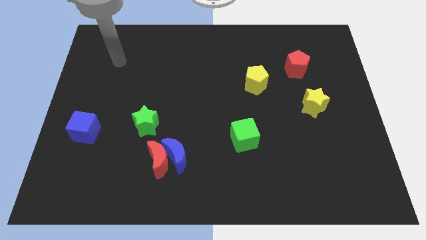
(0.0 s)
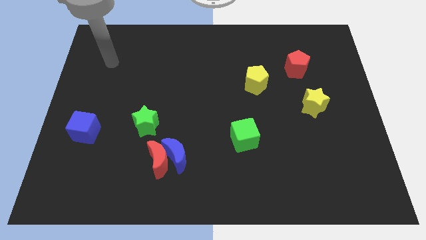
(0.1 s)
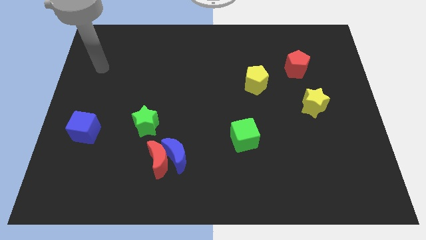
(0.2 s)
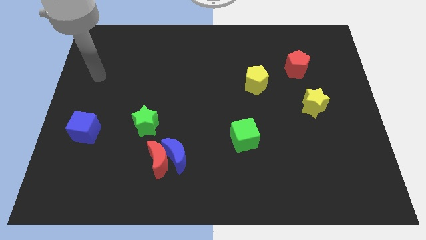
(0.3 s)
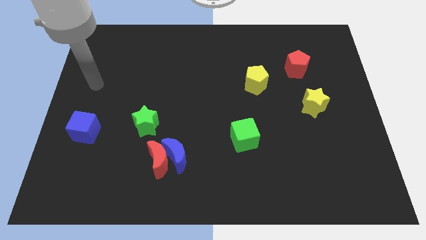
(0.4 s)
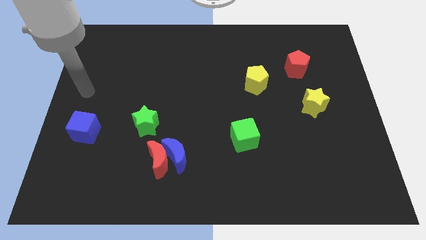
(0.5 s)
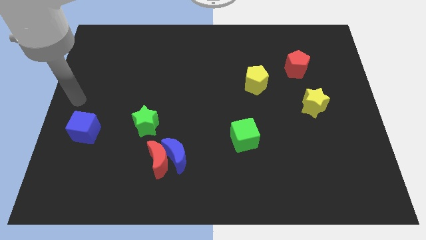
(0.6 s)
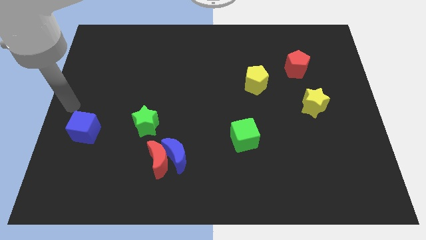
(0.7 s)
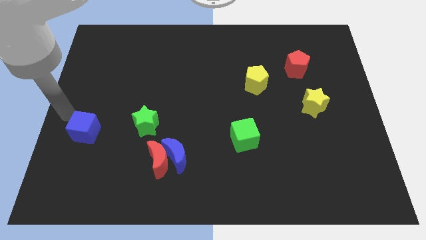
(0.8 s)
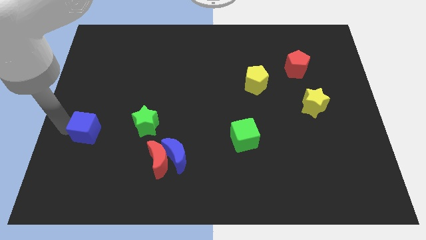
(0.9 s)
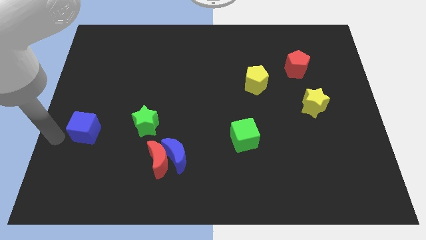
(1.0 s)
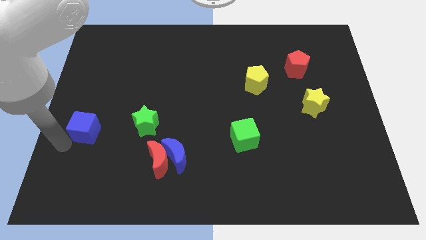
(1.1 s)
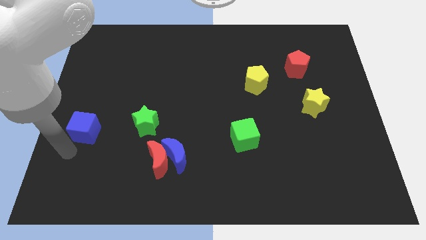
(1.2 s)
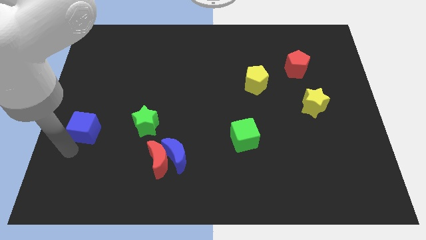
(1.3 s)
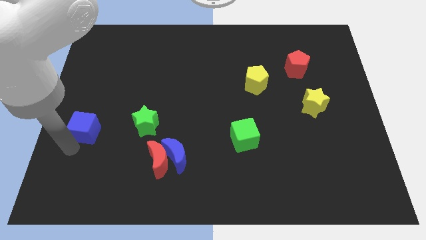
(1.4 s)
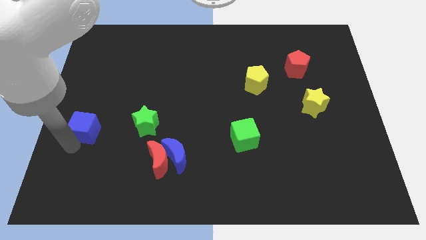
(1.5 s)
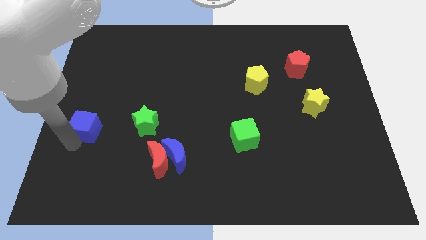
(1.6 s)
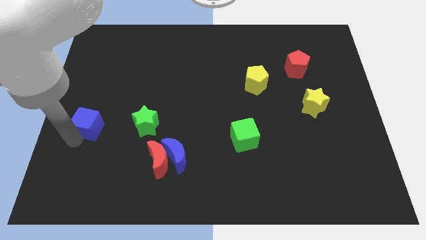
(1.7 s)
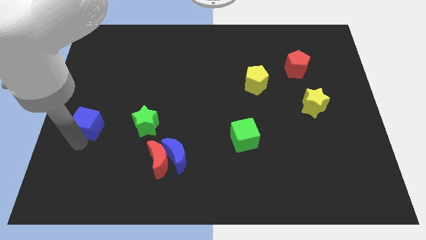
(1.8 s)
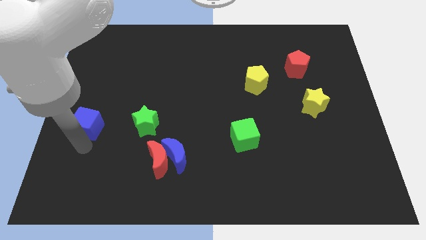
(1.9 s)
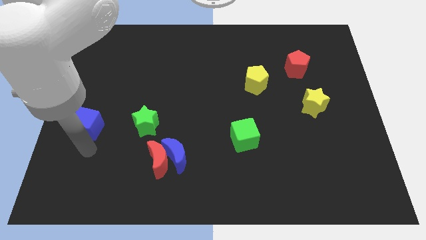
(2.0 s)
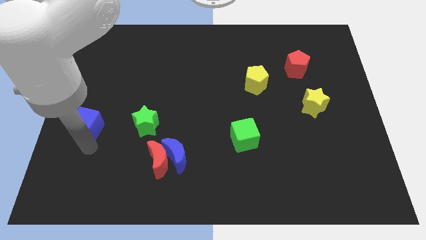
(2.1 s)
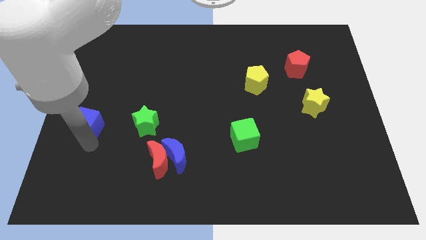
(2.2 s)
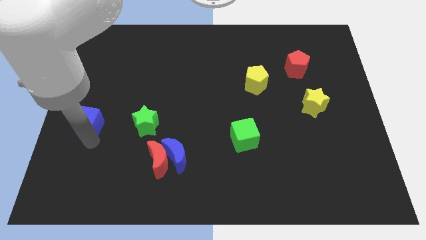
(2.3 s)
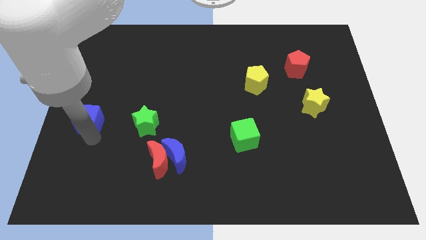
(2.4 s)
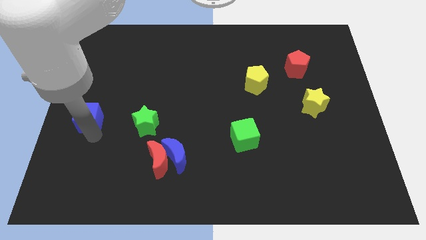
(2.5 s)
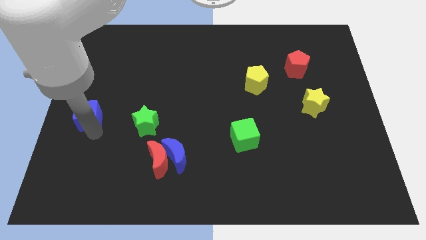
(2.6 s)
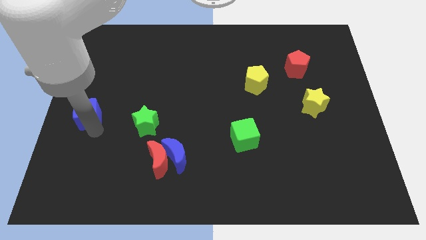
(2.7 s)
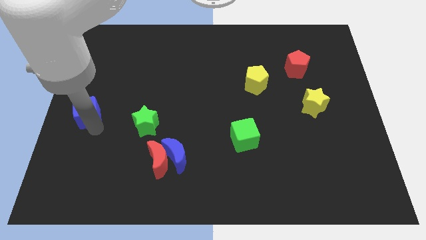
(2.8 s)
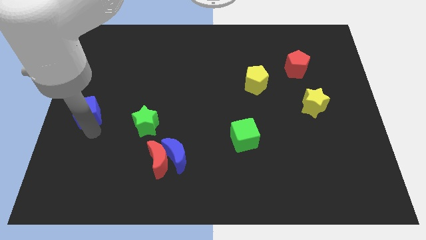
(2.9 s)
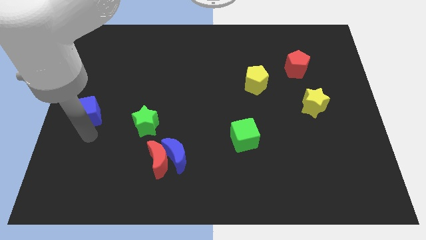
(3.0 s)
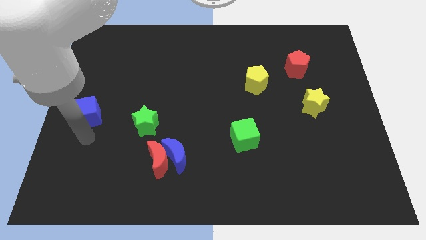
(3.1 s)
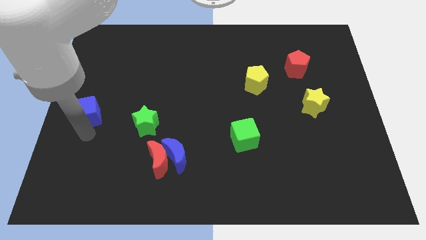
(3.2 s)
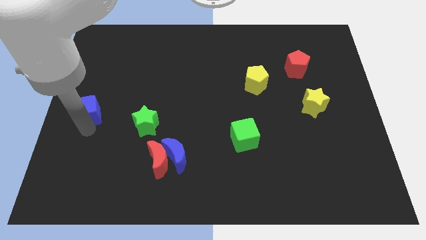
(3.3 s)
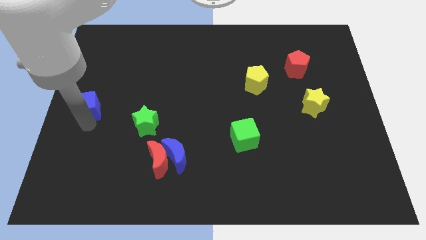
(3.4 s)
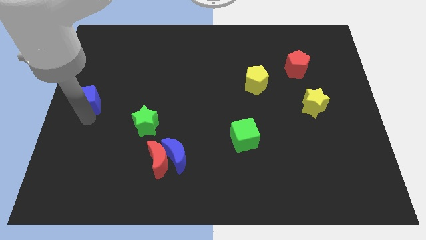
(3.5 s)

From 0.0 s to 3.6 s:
slightly push the blue cube upwards

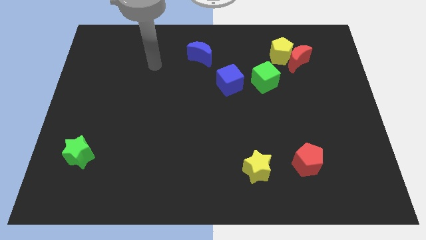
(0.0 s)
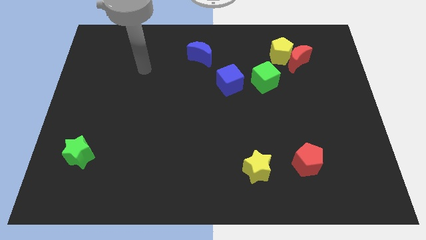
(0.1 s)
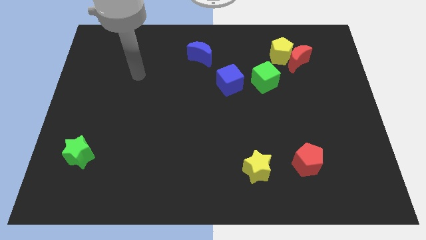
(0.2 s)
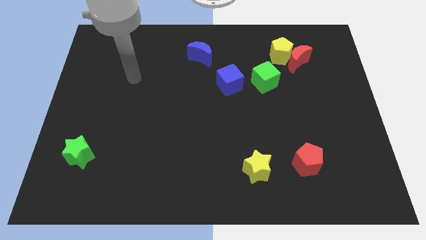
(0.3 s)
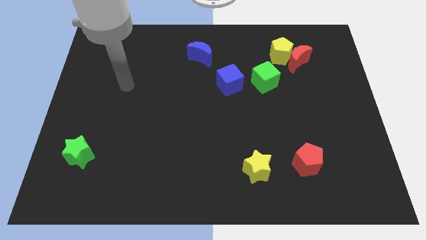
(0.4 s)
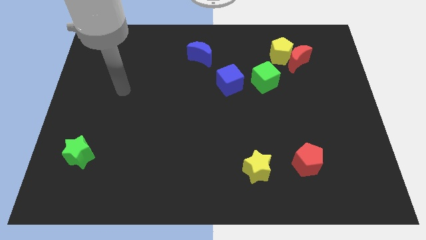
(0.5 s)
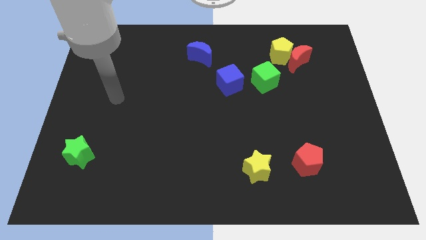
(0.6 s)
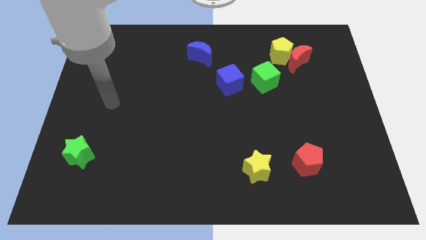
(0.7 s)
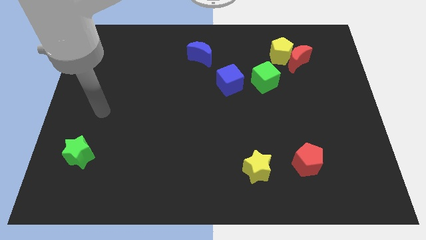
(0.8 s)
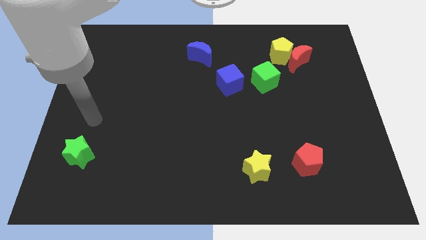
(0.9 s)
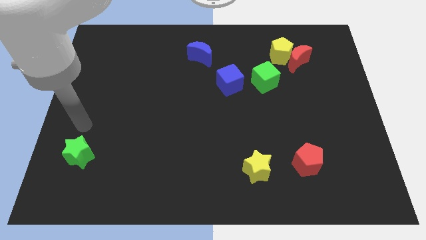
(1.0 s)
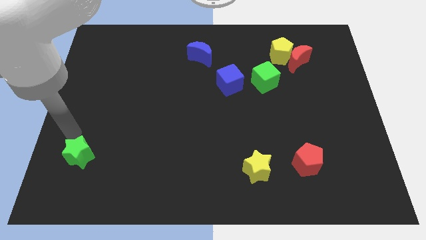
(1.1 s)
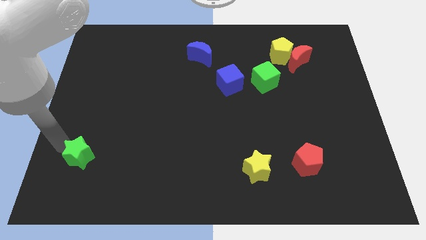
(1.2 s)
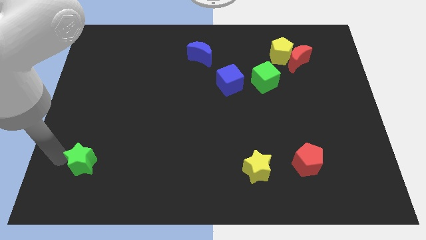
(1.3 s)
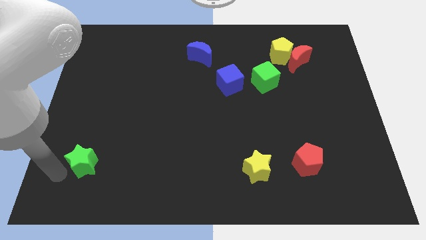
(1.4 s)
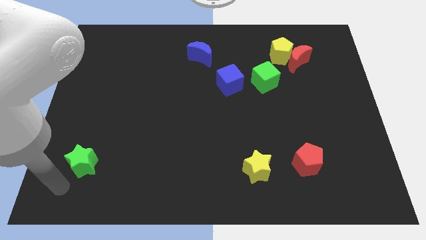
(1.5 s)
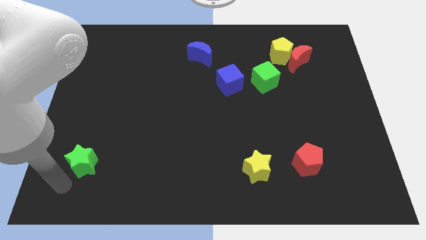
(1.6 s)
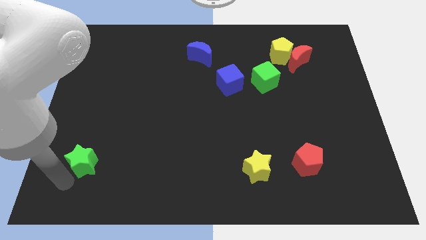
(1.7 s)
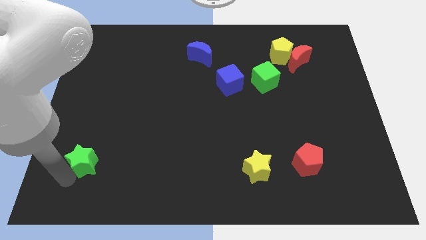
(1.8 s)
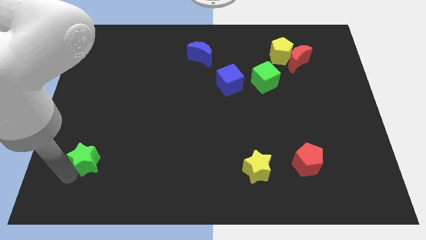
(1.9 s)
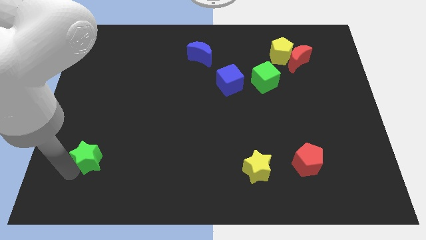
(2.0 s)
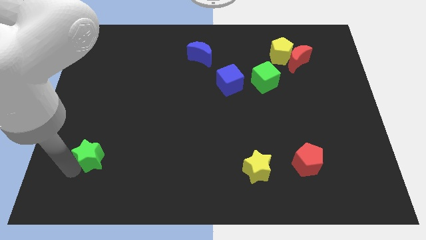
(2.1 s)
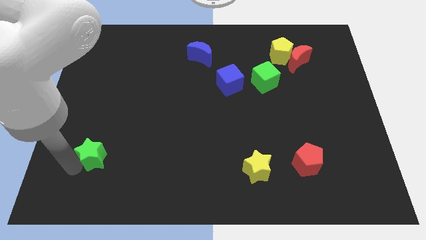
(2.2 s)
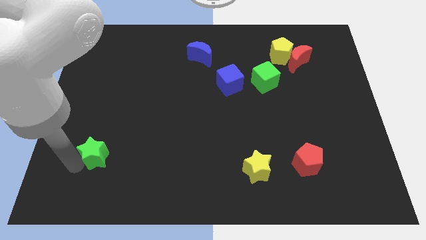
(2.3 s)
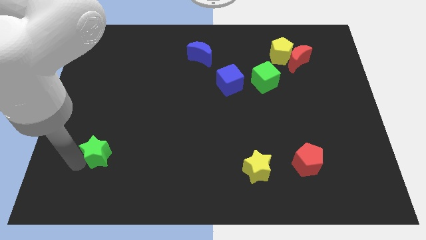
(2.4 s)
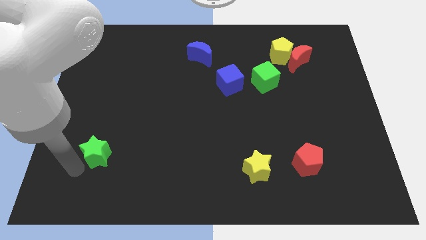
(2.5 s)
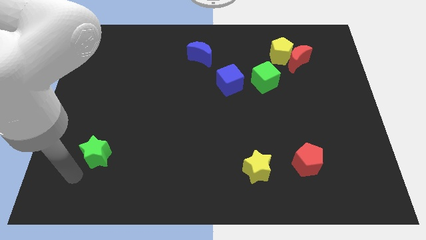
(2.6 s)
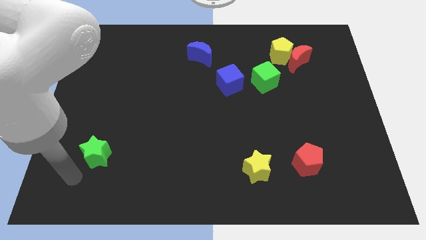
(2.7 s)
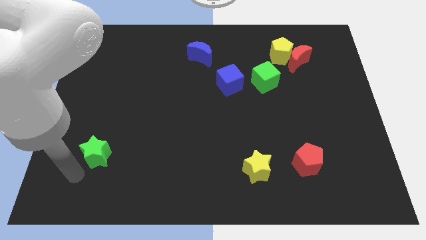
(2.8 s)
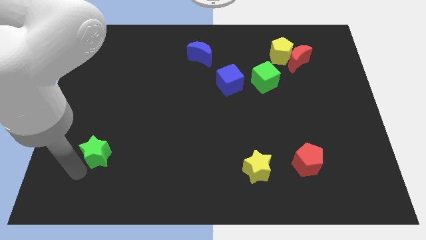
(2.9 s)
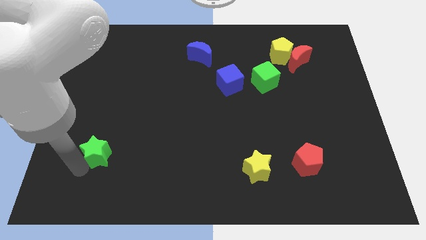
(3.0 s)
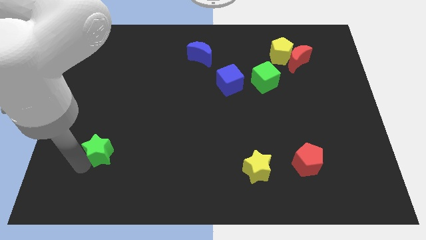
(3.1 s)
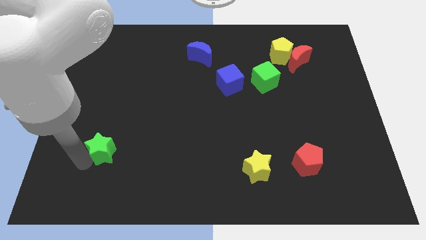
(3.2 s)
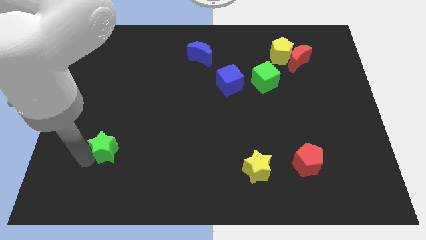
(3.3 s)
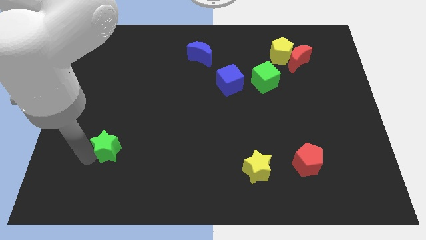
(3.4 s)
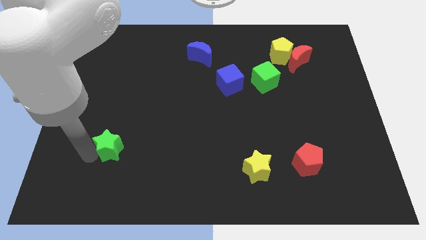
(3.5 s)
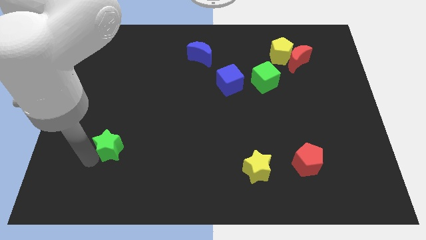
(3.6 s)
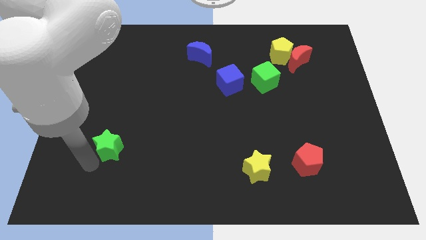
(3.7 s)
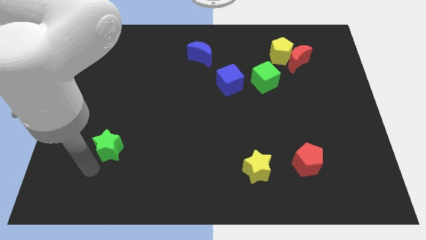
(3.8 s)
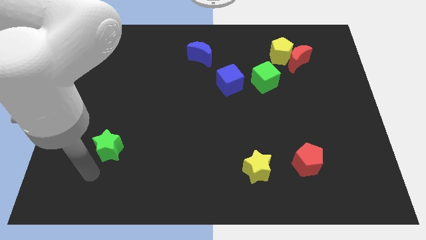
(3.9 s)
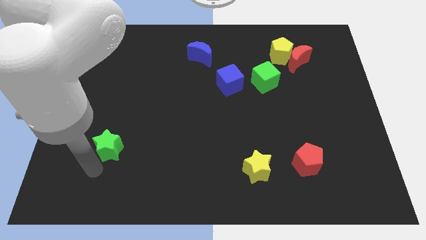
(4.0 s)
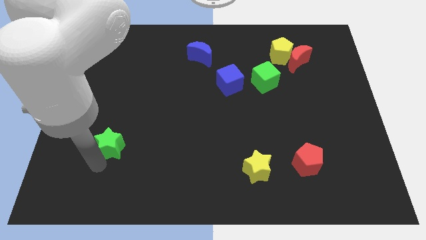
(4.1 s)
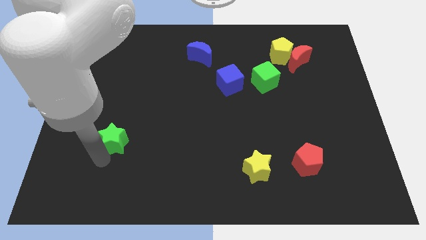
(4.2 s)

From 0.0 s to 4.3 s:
slide the green star up and right diagonally slightly

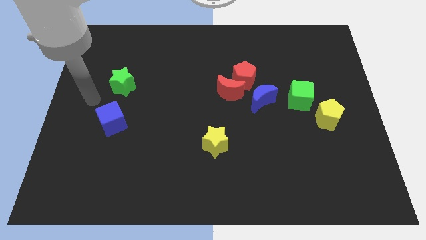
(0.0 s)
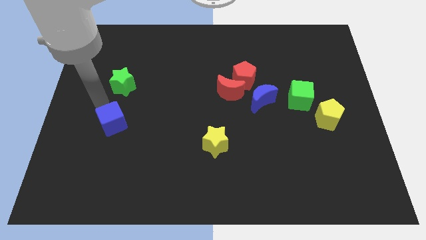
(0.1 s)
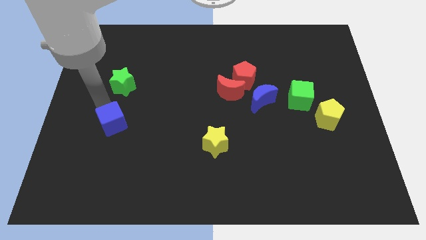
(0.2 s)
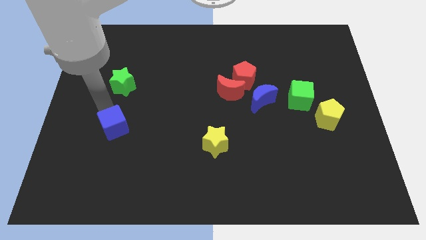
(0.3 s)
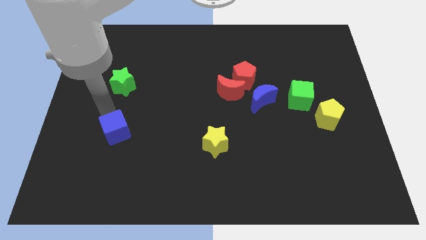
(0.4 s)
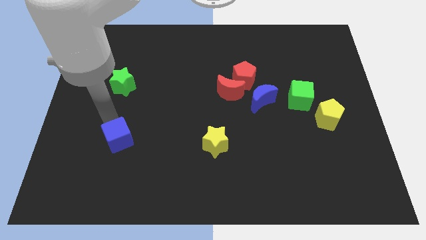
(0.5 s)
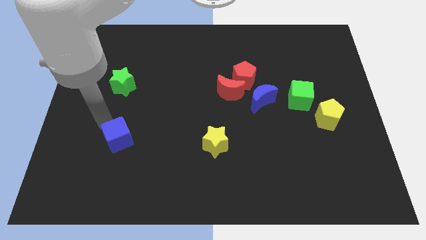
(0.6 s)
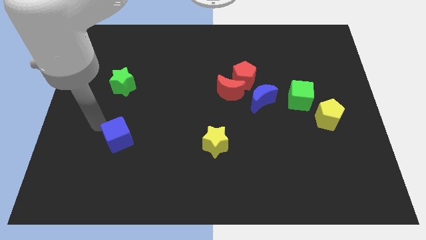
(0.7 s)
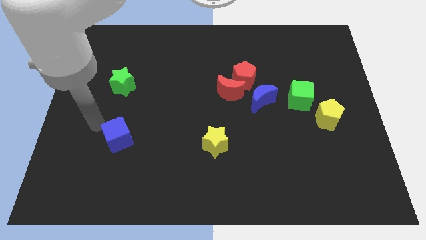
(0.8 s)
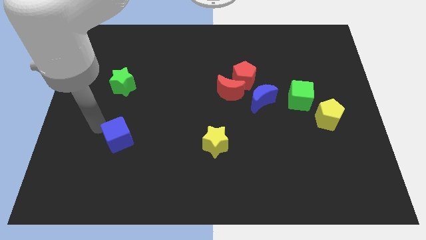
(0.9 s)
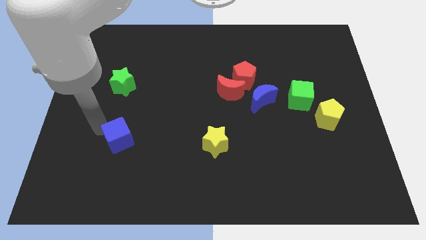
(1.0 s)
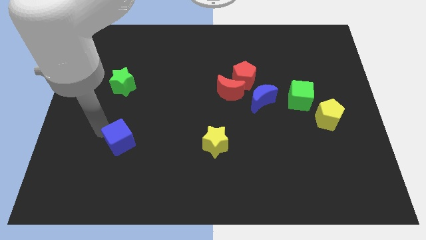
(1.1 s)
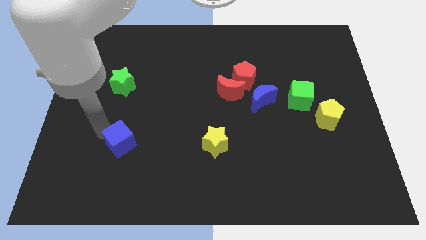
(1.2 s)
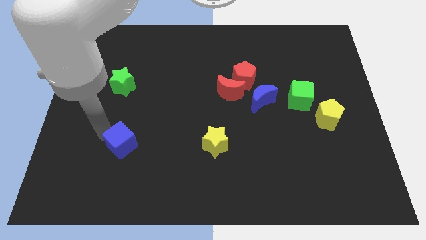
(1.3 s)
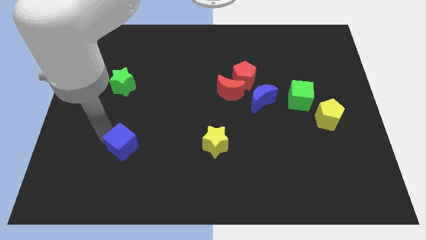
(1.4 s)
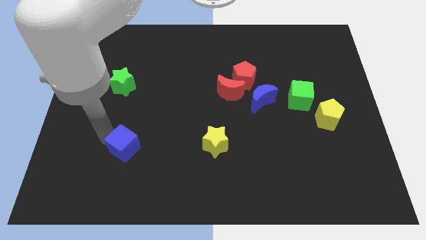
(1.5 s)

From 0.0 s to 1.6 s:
slightly move the blue cube diagonally down and right
